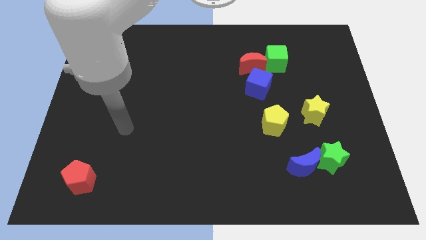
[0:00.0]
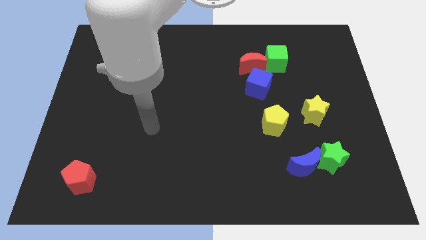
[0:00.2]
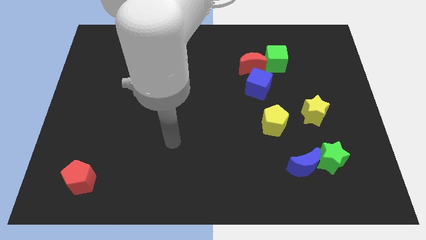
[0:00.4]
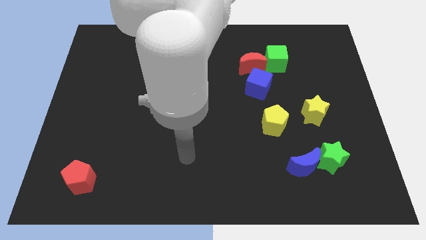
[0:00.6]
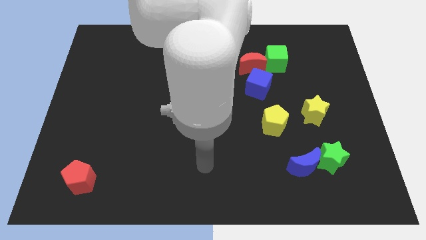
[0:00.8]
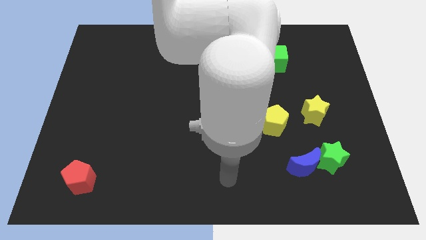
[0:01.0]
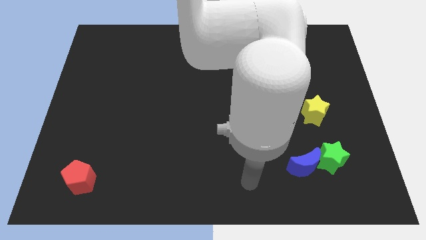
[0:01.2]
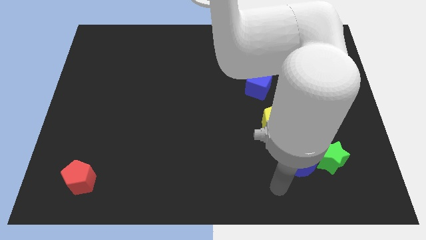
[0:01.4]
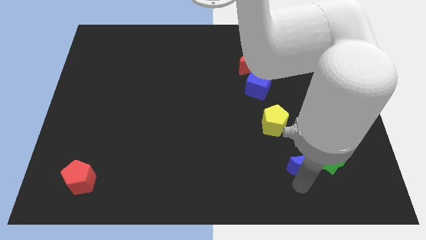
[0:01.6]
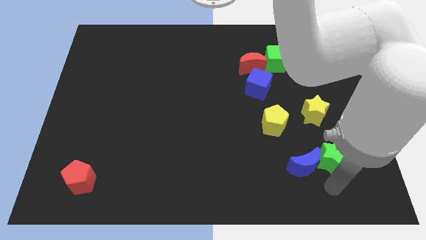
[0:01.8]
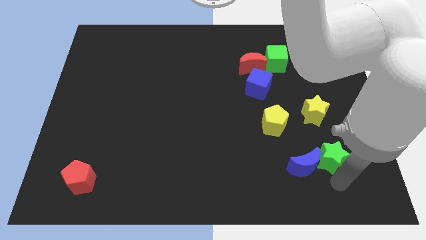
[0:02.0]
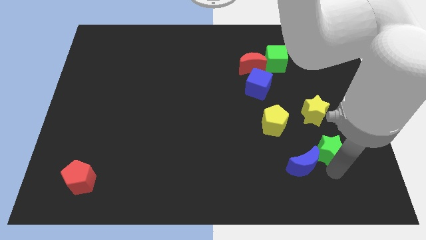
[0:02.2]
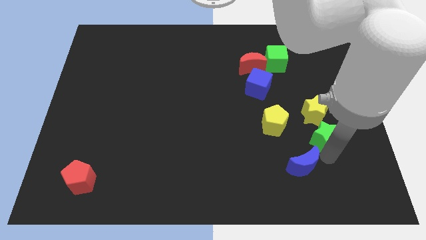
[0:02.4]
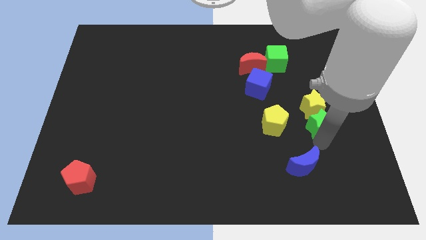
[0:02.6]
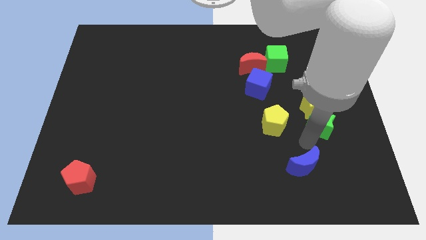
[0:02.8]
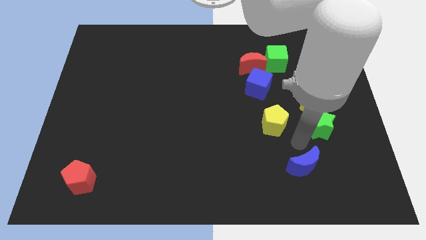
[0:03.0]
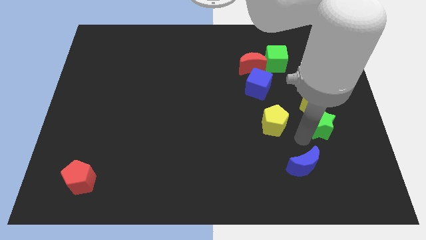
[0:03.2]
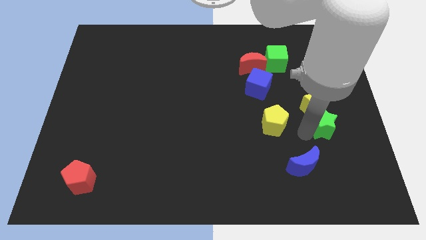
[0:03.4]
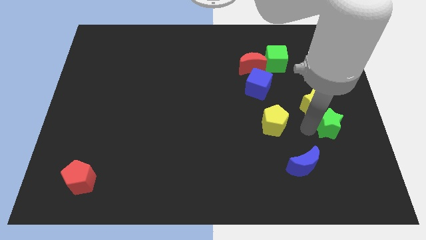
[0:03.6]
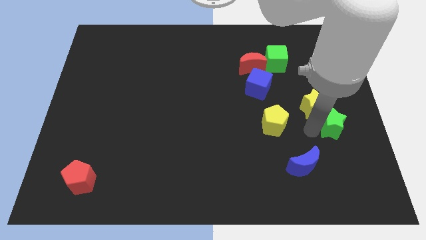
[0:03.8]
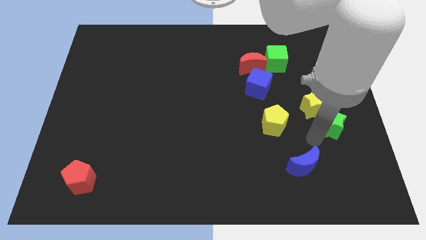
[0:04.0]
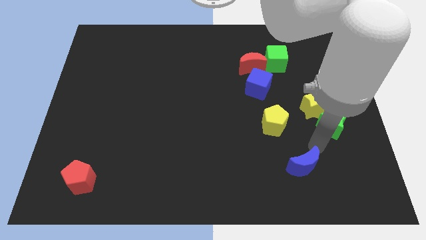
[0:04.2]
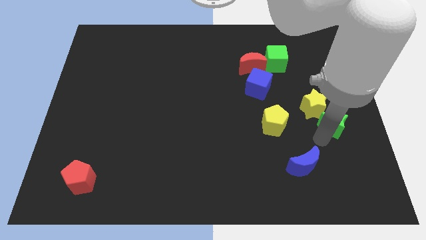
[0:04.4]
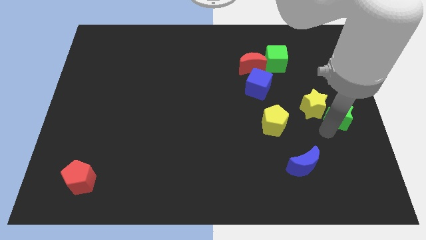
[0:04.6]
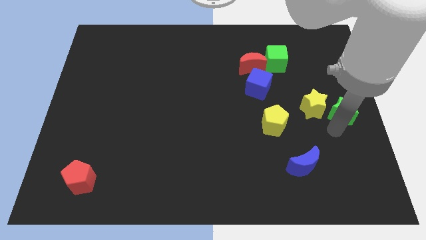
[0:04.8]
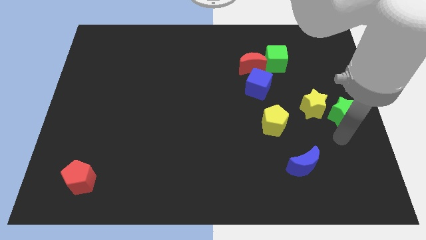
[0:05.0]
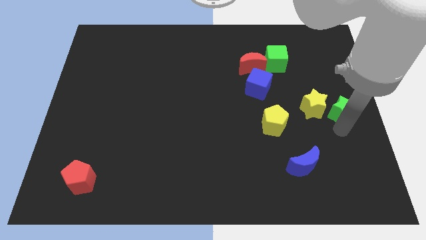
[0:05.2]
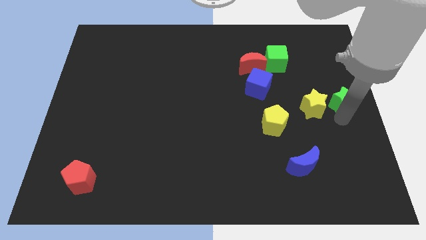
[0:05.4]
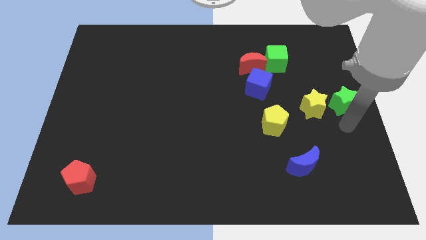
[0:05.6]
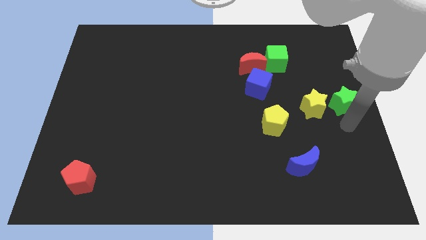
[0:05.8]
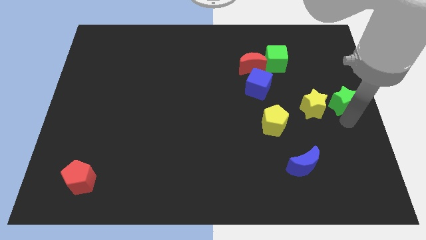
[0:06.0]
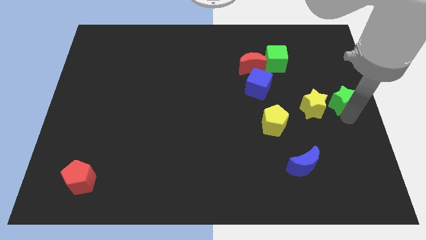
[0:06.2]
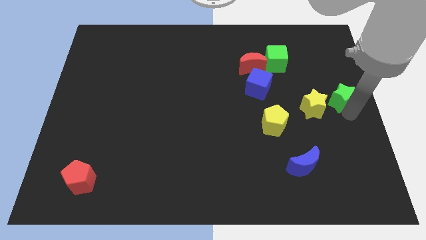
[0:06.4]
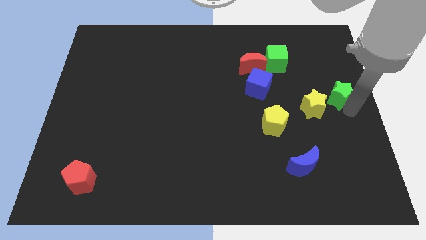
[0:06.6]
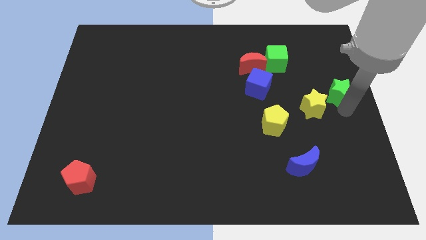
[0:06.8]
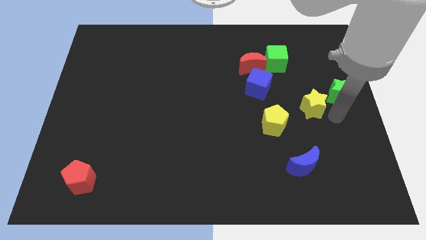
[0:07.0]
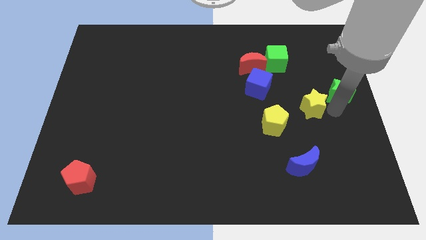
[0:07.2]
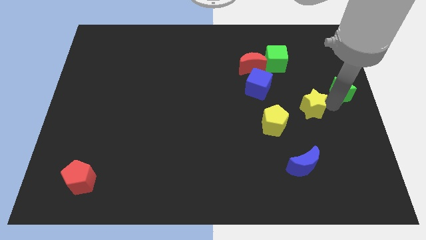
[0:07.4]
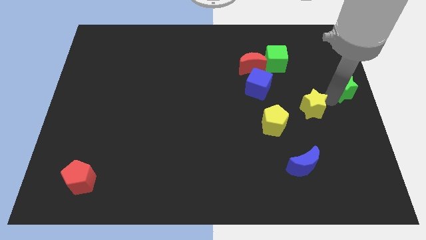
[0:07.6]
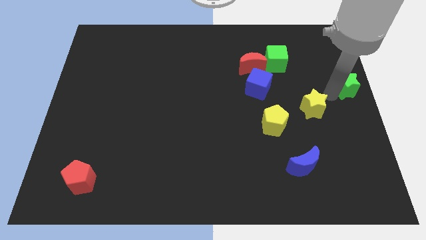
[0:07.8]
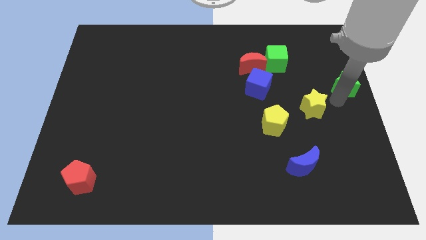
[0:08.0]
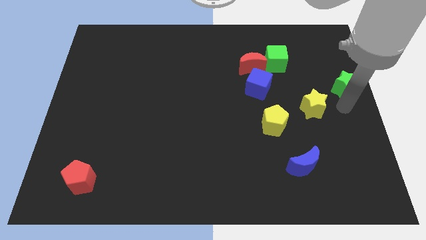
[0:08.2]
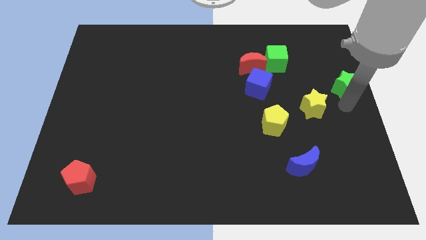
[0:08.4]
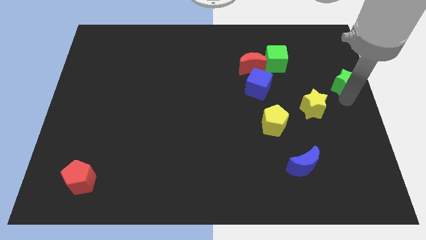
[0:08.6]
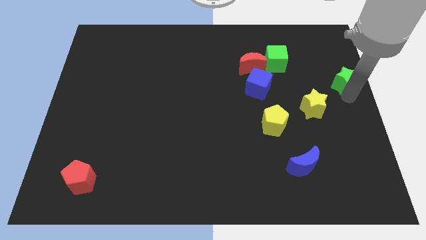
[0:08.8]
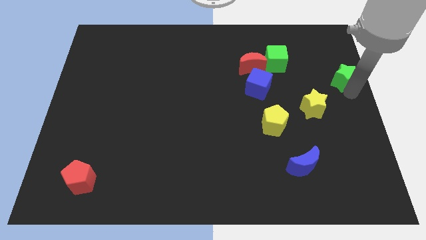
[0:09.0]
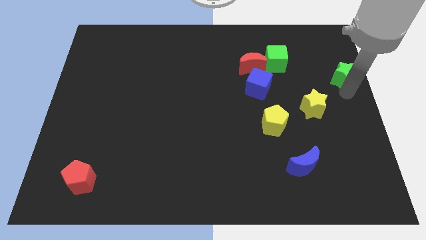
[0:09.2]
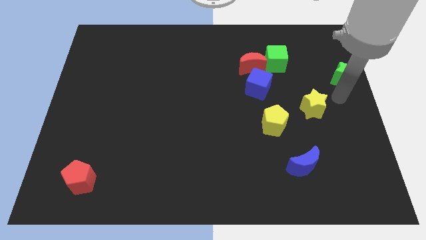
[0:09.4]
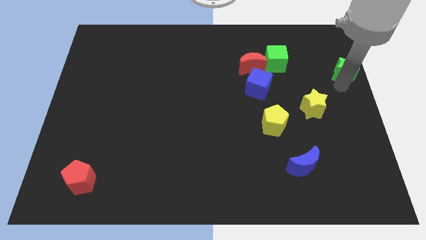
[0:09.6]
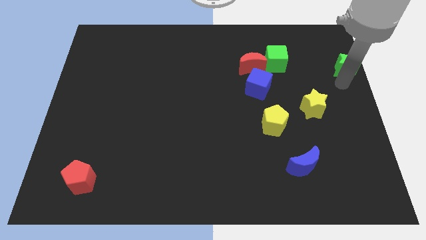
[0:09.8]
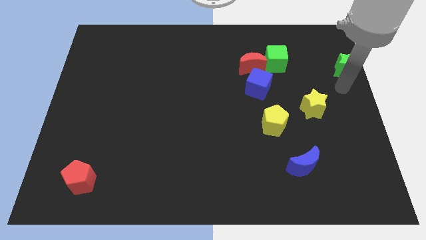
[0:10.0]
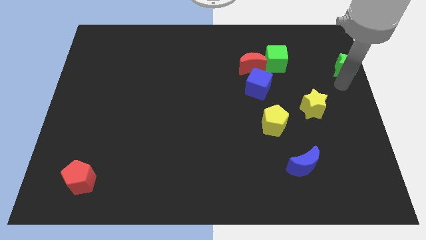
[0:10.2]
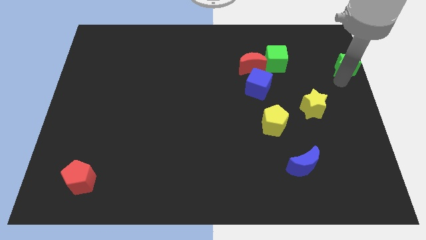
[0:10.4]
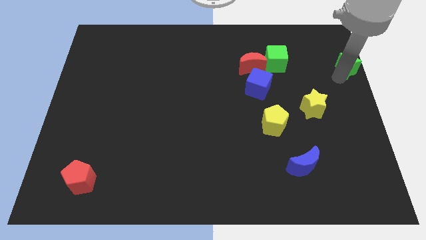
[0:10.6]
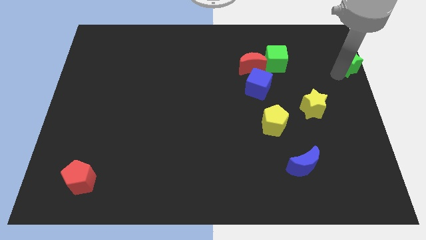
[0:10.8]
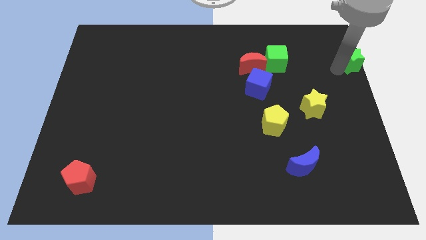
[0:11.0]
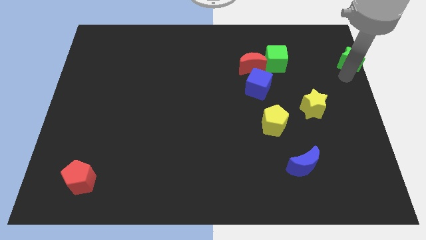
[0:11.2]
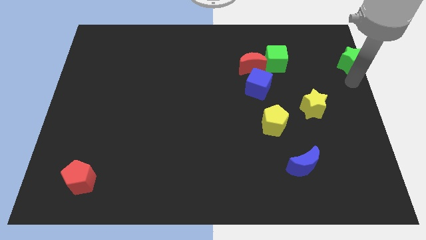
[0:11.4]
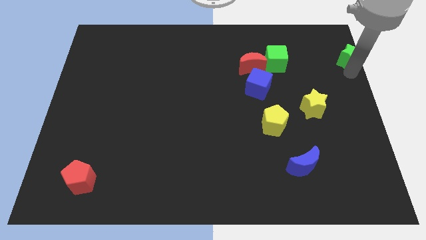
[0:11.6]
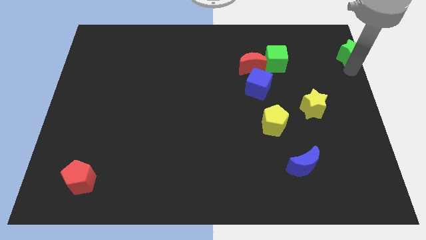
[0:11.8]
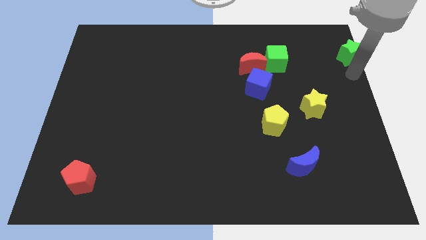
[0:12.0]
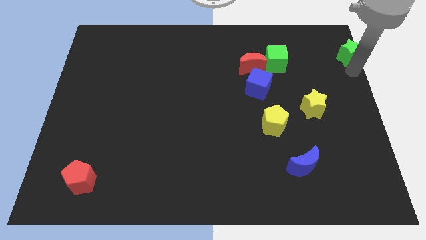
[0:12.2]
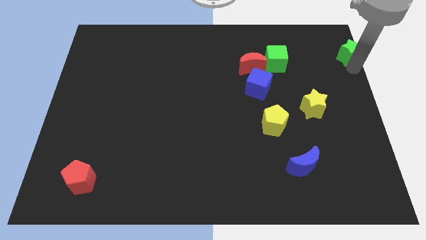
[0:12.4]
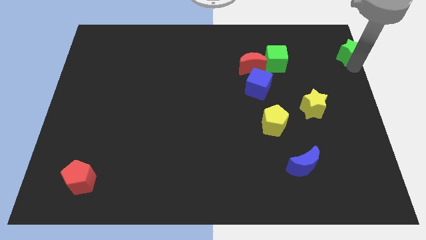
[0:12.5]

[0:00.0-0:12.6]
push the green star to the upper right corner
